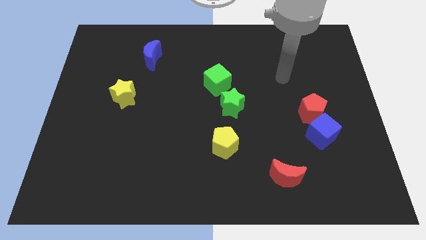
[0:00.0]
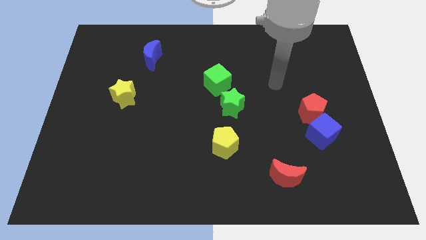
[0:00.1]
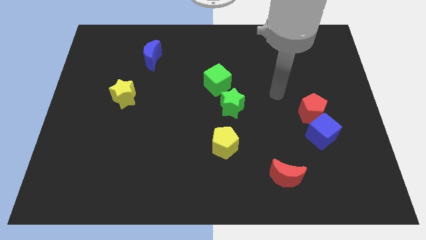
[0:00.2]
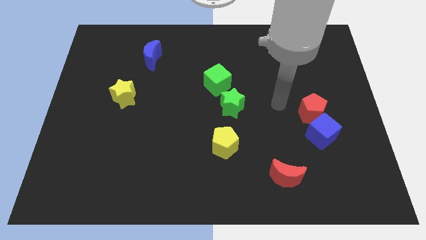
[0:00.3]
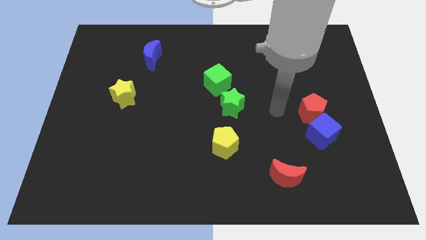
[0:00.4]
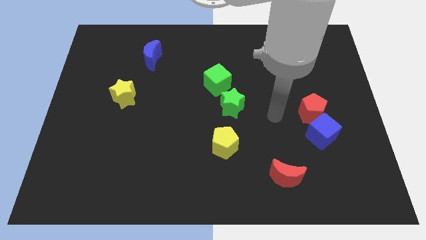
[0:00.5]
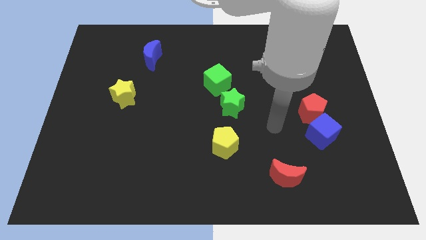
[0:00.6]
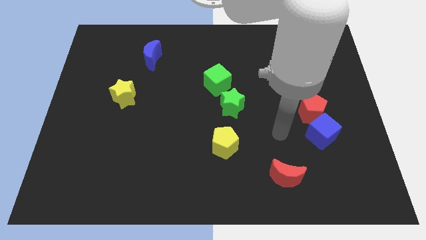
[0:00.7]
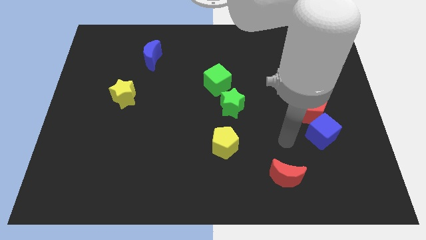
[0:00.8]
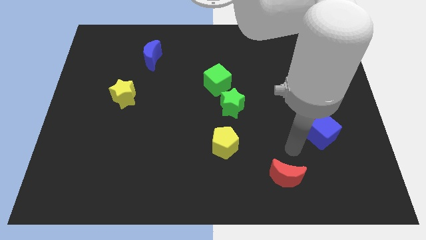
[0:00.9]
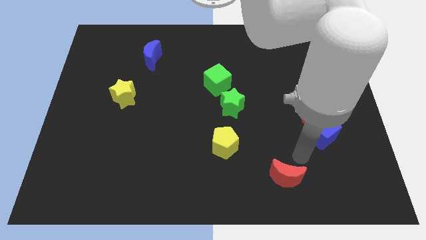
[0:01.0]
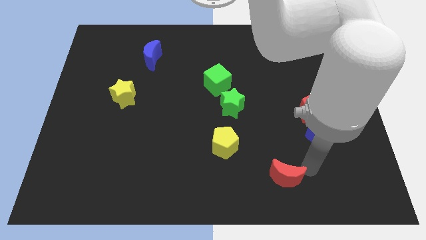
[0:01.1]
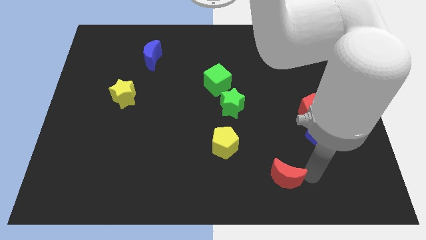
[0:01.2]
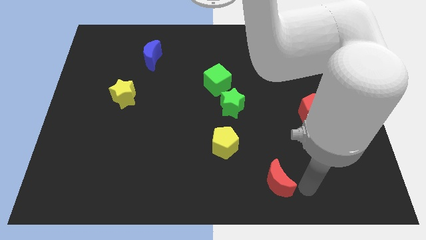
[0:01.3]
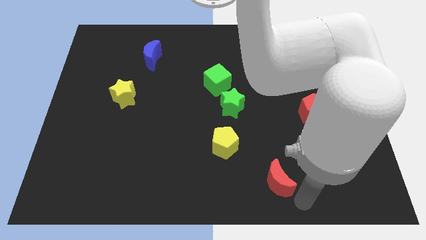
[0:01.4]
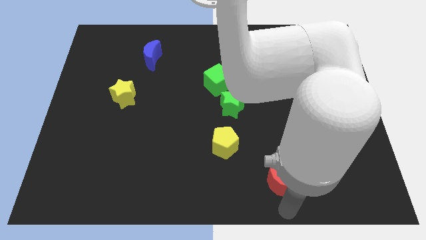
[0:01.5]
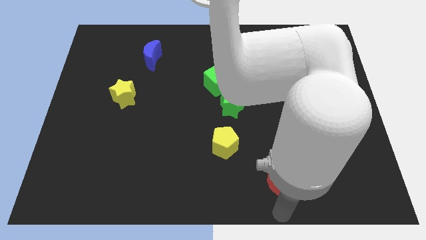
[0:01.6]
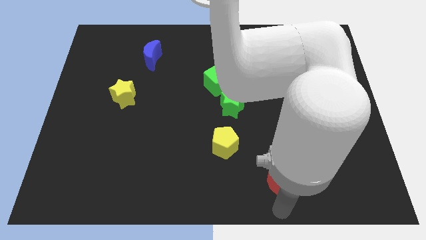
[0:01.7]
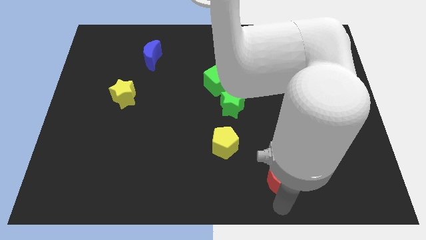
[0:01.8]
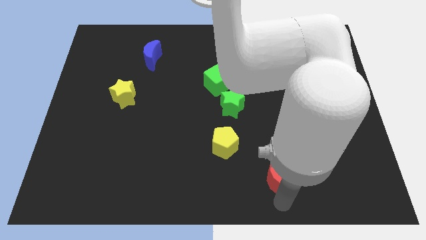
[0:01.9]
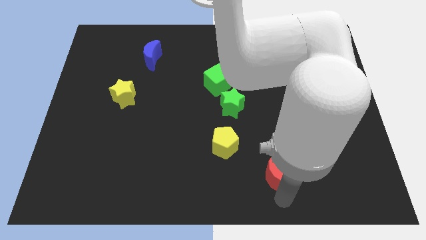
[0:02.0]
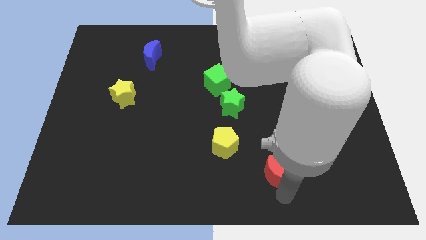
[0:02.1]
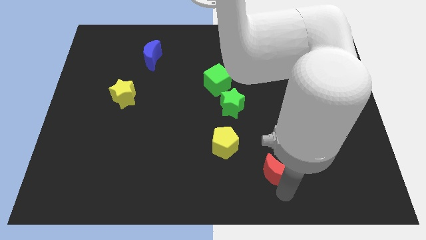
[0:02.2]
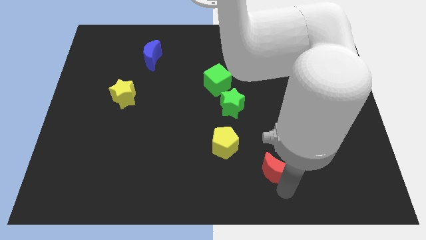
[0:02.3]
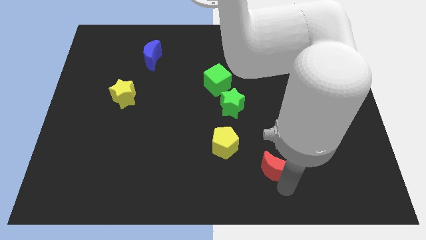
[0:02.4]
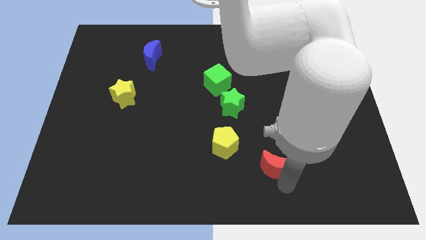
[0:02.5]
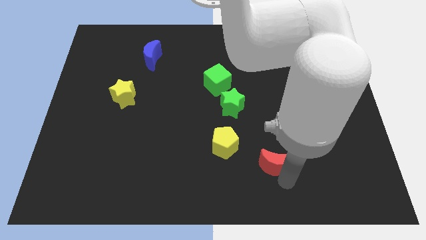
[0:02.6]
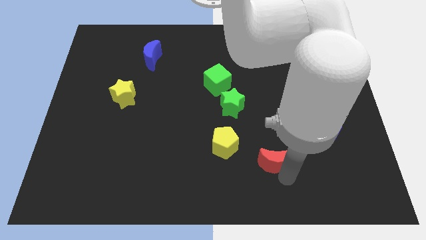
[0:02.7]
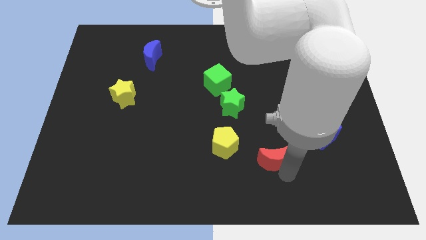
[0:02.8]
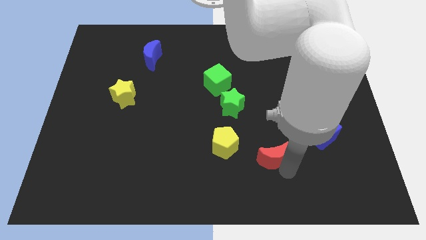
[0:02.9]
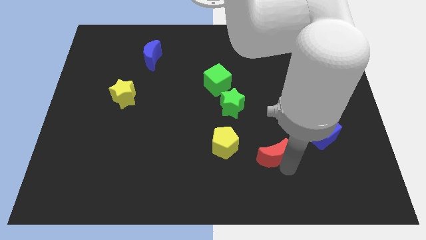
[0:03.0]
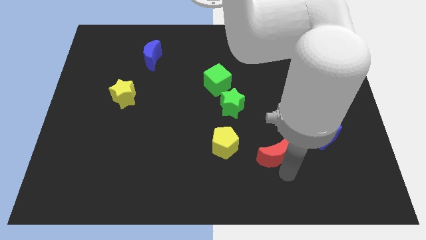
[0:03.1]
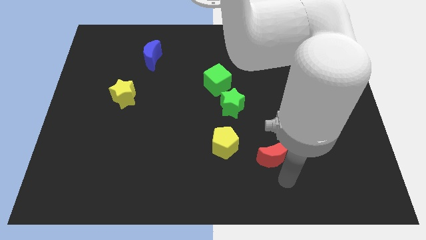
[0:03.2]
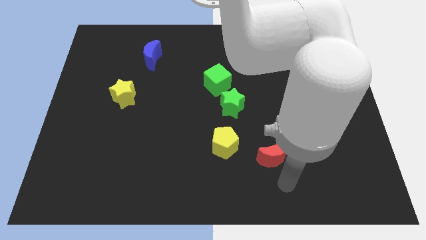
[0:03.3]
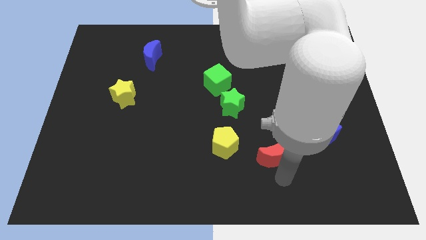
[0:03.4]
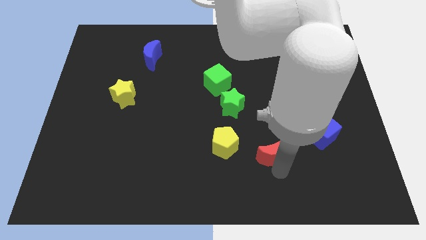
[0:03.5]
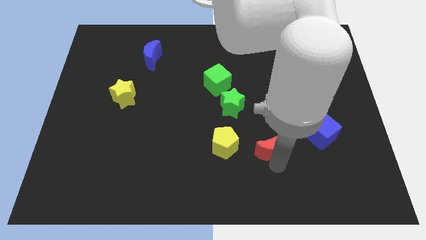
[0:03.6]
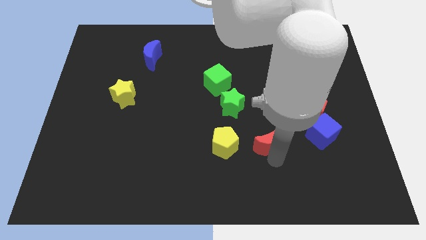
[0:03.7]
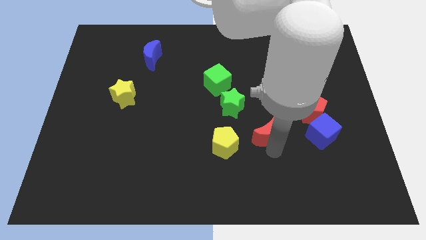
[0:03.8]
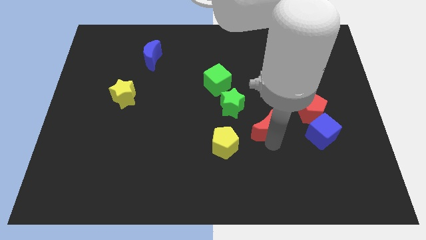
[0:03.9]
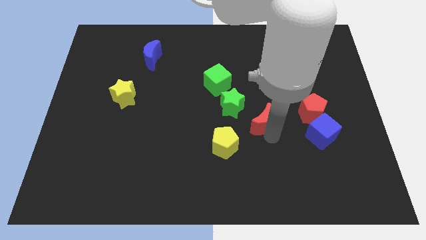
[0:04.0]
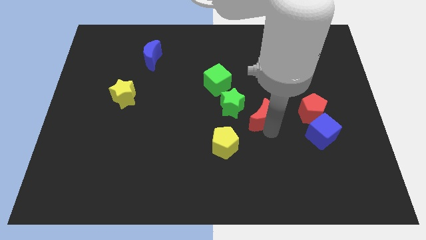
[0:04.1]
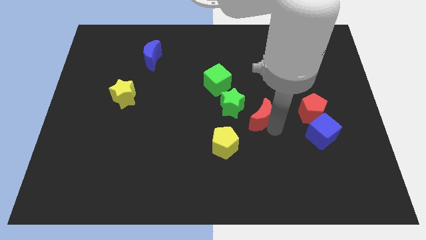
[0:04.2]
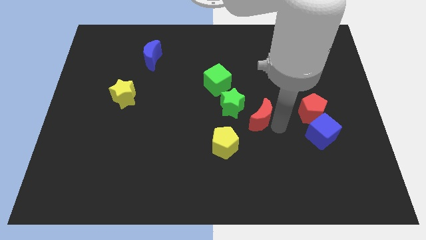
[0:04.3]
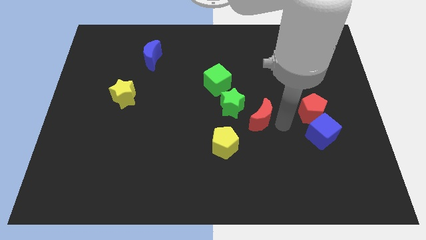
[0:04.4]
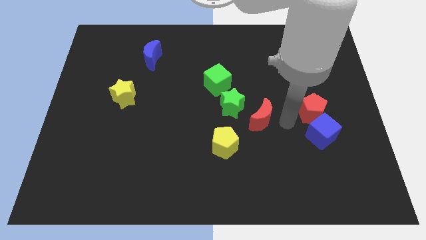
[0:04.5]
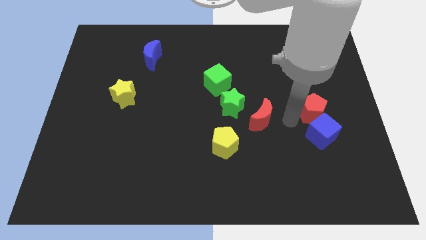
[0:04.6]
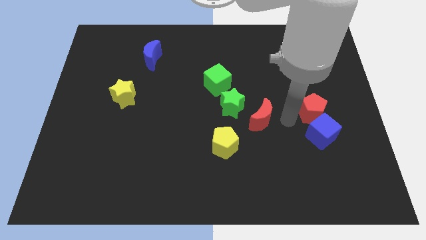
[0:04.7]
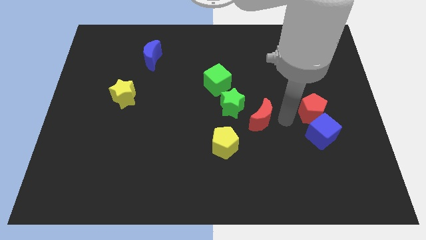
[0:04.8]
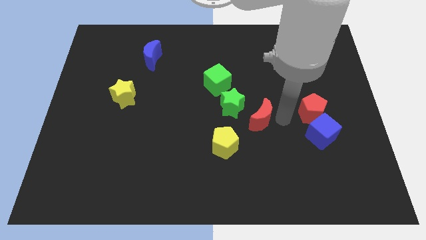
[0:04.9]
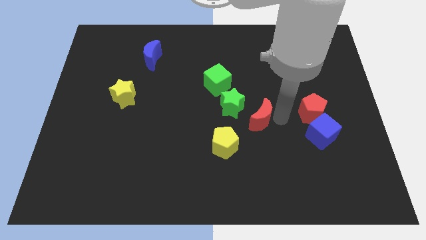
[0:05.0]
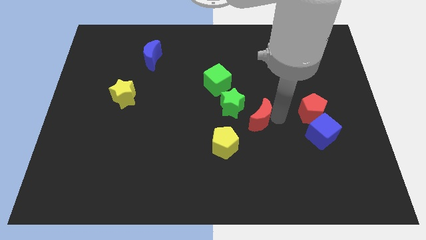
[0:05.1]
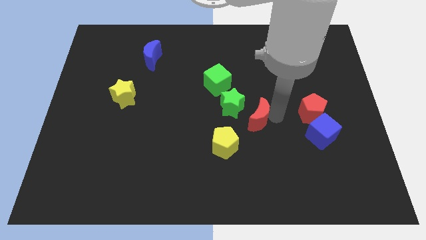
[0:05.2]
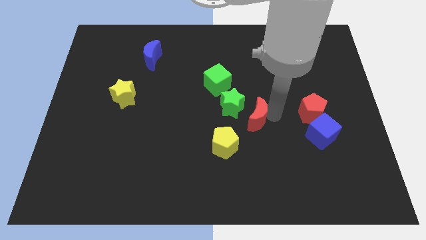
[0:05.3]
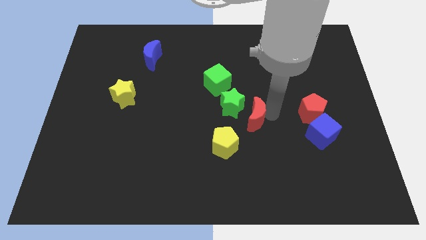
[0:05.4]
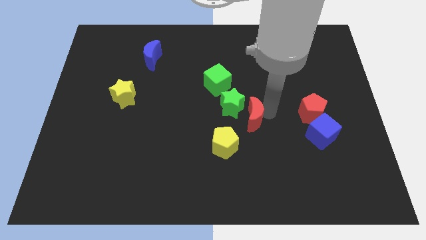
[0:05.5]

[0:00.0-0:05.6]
move the red moon close to the green star
